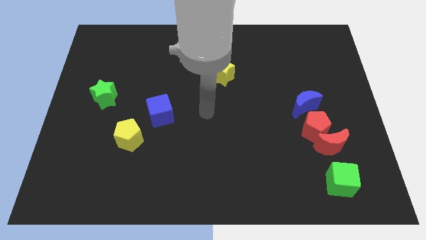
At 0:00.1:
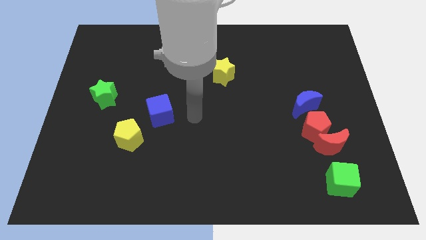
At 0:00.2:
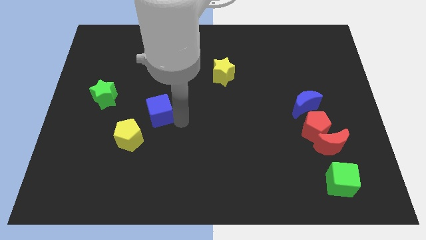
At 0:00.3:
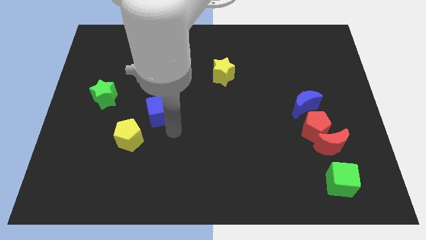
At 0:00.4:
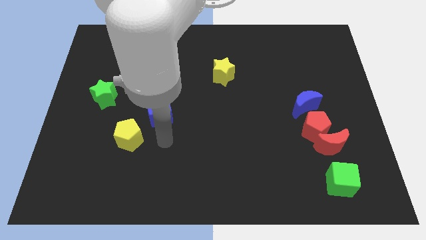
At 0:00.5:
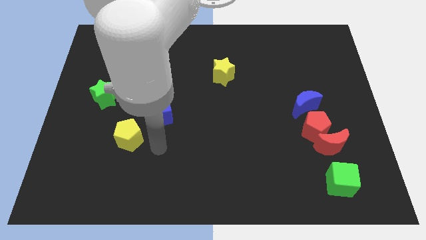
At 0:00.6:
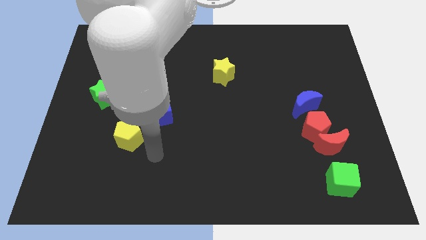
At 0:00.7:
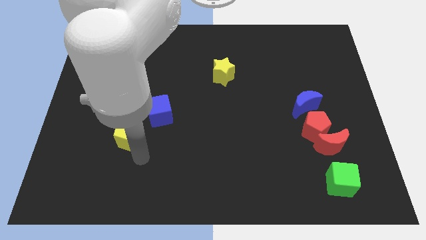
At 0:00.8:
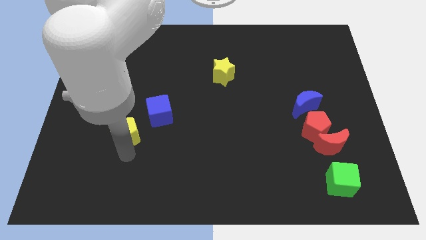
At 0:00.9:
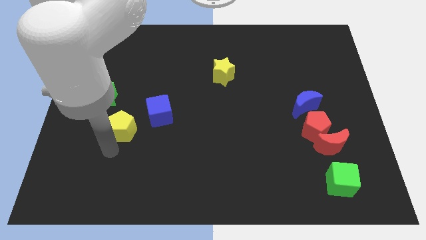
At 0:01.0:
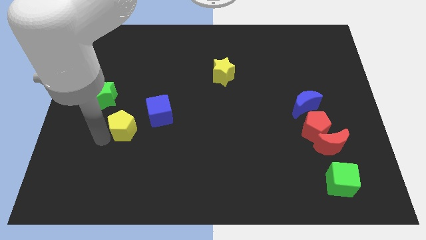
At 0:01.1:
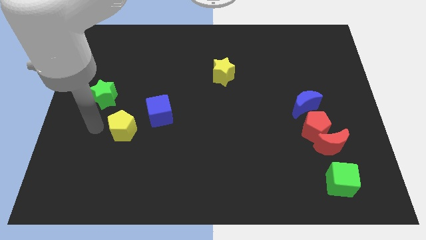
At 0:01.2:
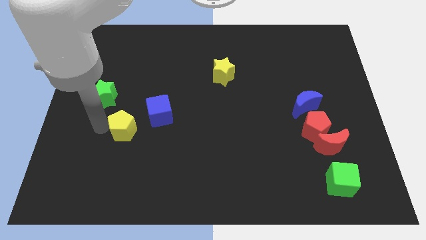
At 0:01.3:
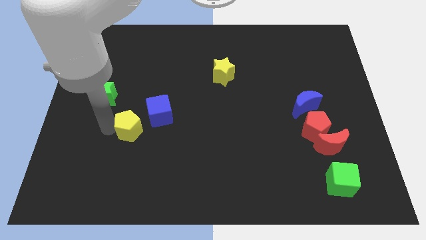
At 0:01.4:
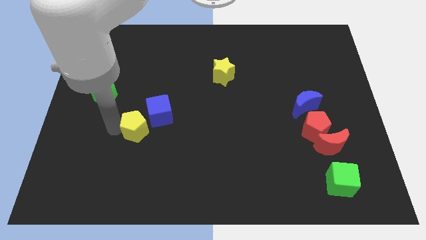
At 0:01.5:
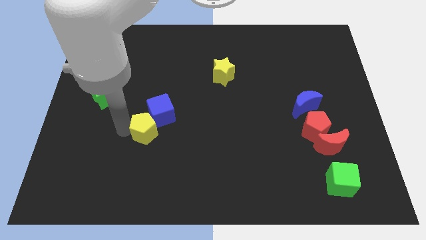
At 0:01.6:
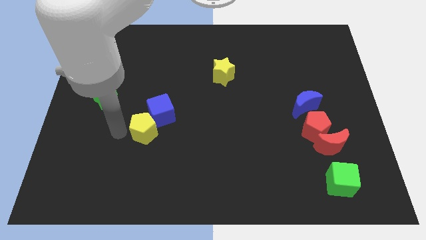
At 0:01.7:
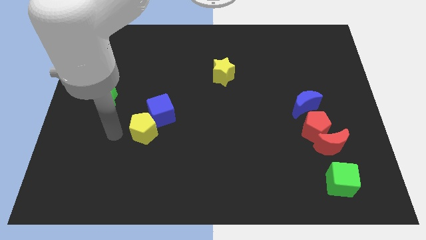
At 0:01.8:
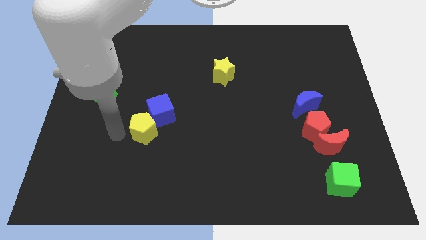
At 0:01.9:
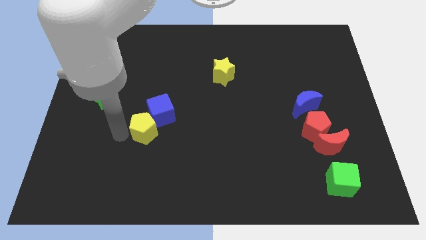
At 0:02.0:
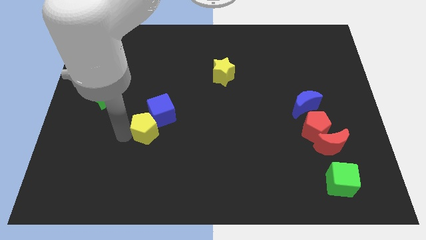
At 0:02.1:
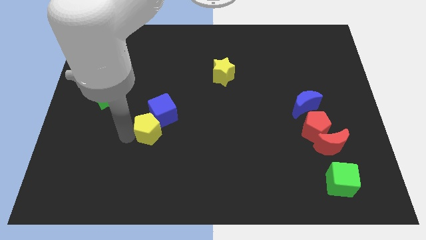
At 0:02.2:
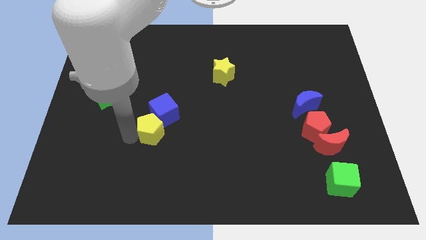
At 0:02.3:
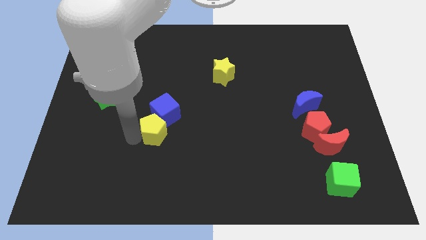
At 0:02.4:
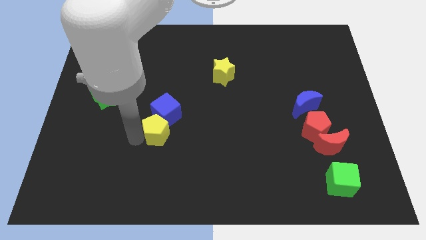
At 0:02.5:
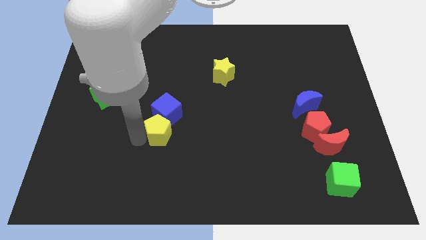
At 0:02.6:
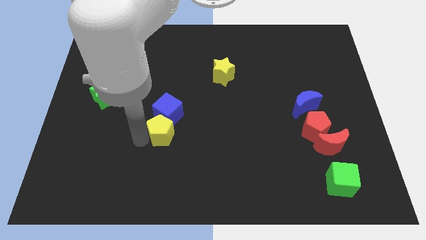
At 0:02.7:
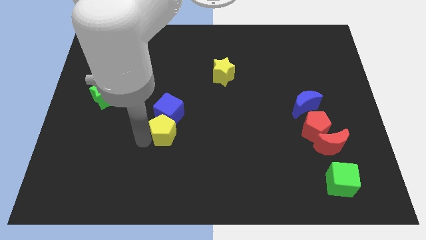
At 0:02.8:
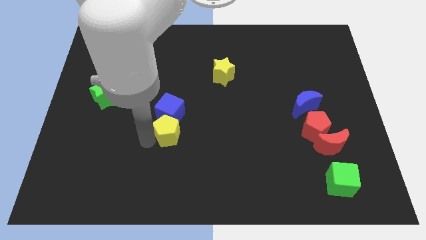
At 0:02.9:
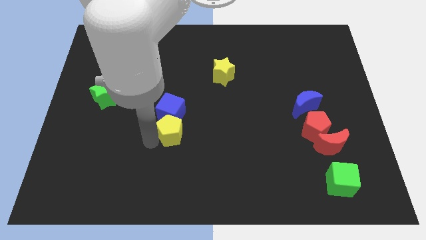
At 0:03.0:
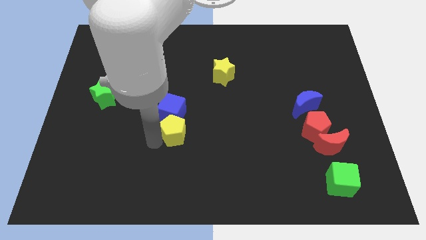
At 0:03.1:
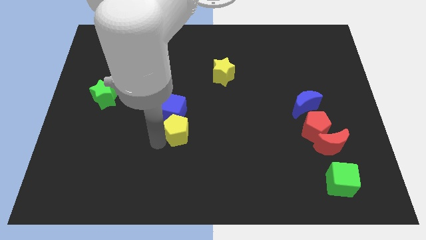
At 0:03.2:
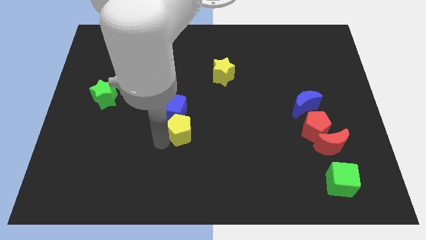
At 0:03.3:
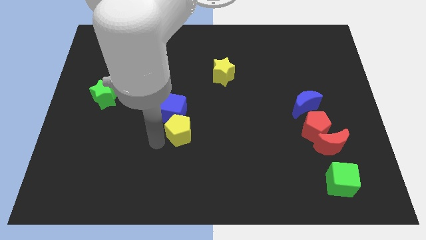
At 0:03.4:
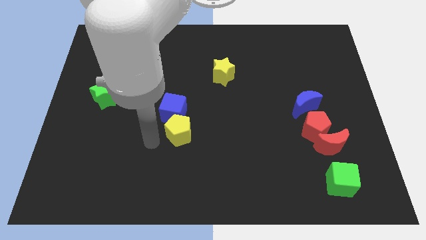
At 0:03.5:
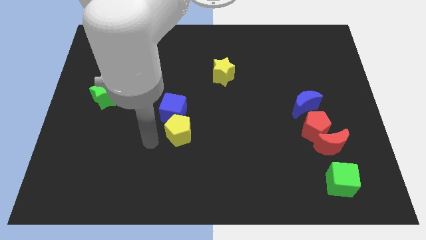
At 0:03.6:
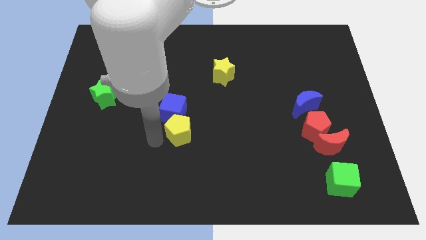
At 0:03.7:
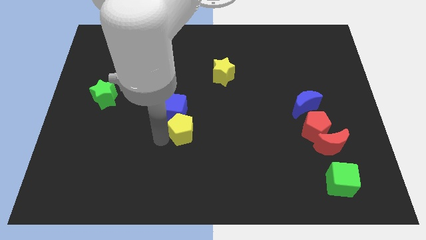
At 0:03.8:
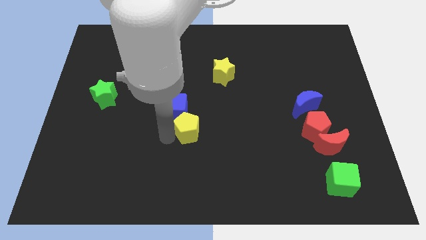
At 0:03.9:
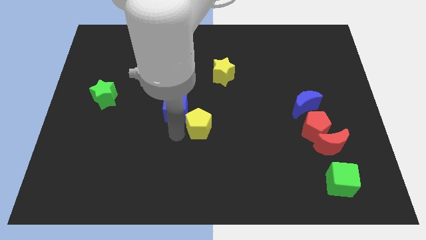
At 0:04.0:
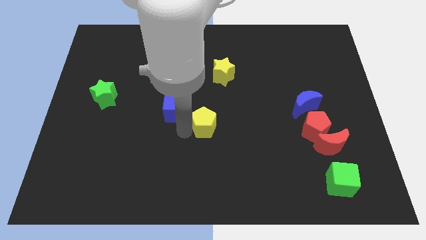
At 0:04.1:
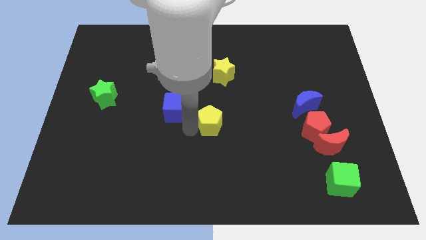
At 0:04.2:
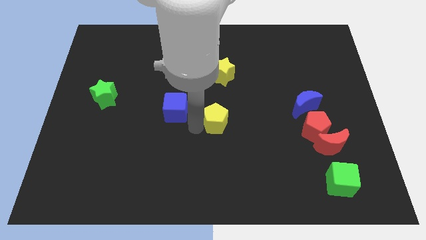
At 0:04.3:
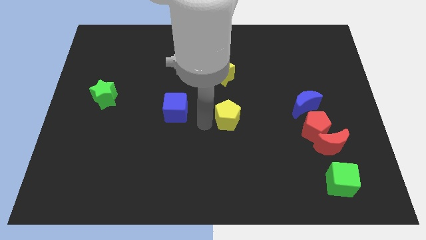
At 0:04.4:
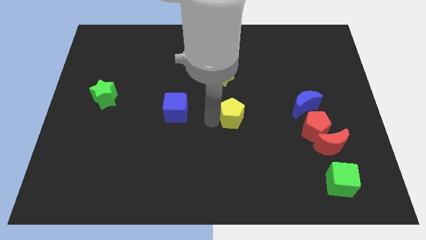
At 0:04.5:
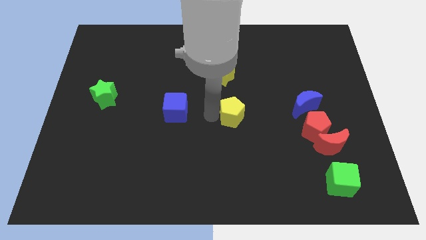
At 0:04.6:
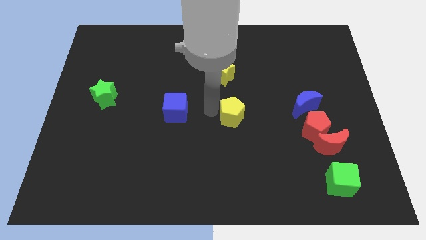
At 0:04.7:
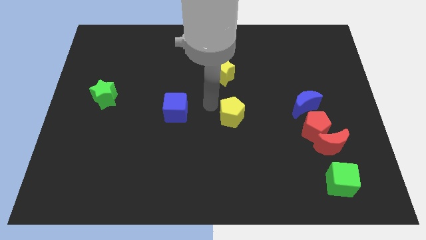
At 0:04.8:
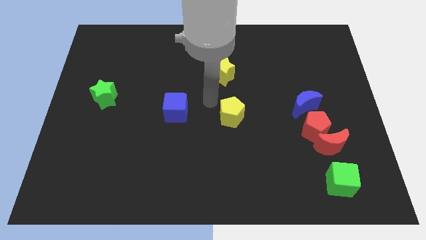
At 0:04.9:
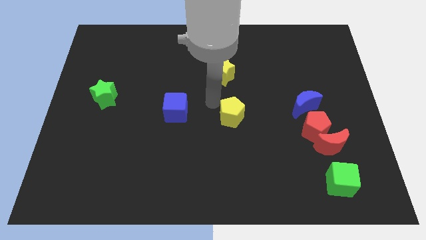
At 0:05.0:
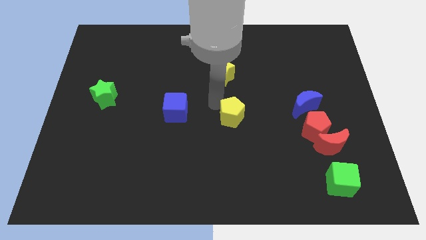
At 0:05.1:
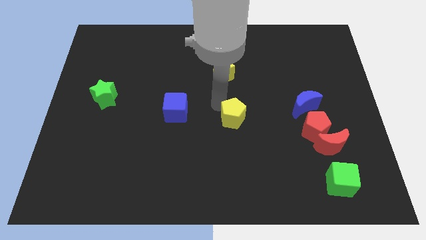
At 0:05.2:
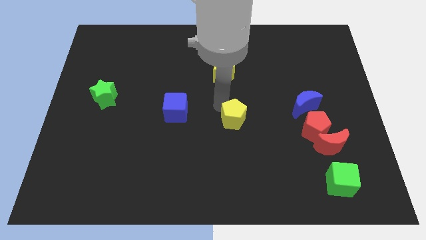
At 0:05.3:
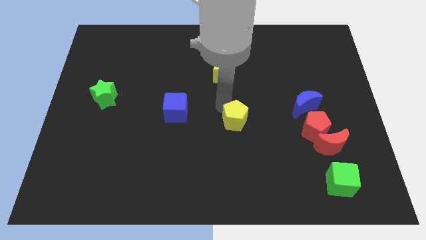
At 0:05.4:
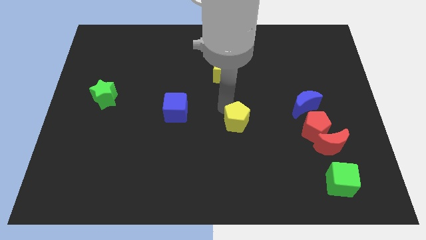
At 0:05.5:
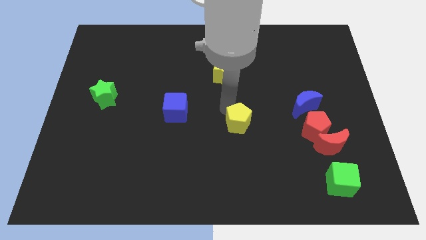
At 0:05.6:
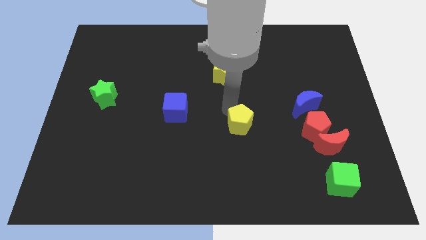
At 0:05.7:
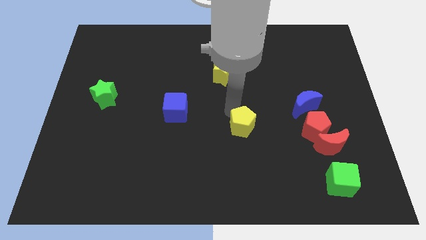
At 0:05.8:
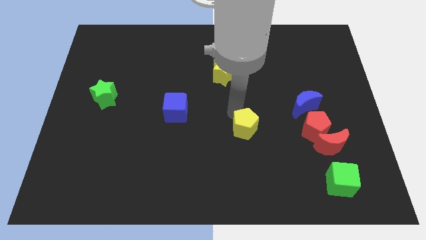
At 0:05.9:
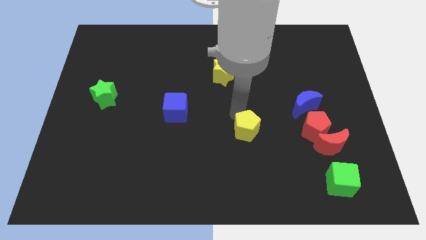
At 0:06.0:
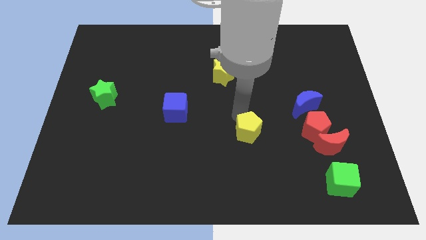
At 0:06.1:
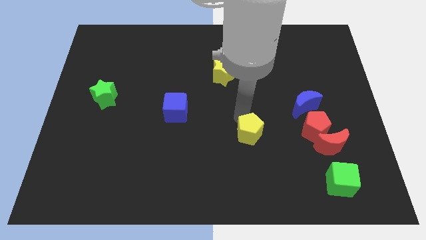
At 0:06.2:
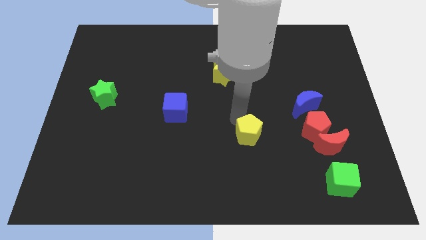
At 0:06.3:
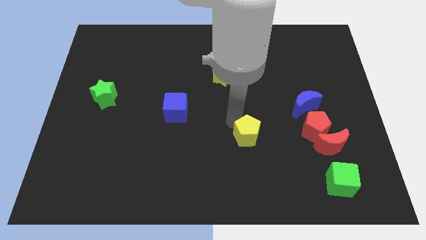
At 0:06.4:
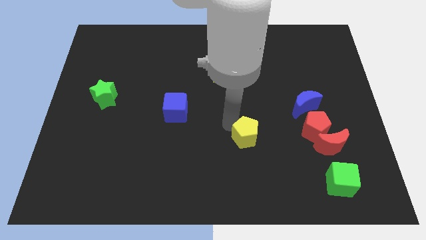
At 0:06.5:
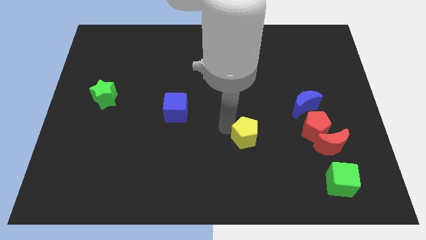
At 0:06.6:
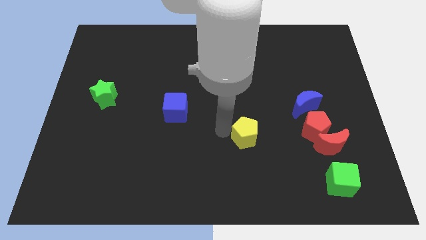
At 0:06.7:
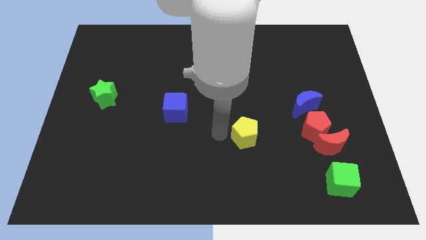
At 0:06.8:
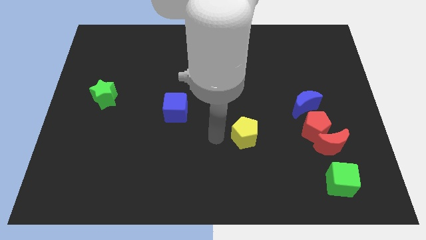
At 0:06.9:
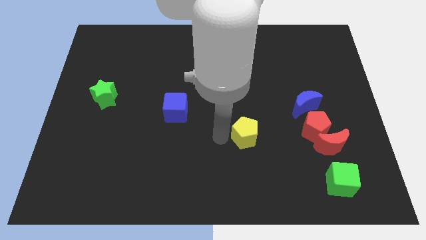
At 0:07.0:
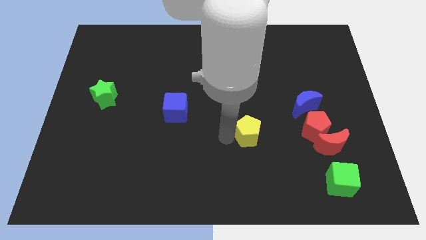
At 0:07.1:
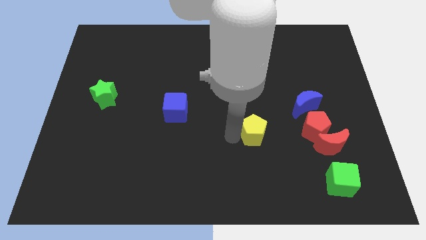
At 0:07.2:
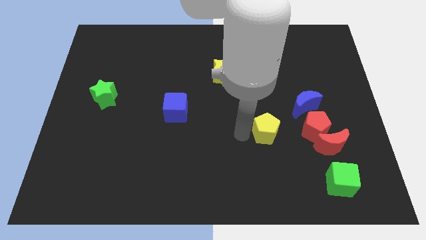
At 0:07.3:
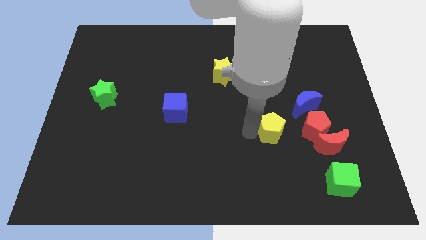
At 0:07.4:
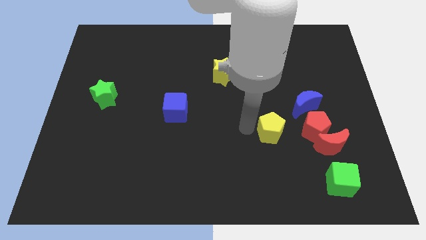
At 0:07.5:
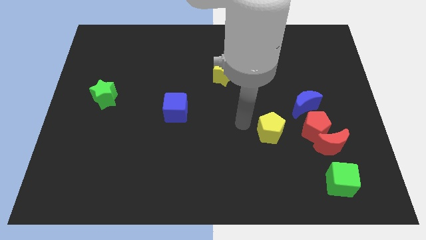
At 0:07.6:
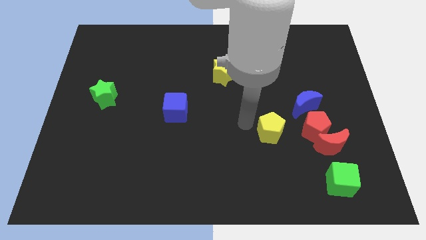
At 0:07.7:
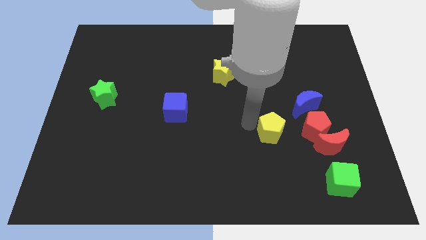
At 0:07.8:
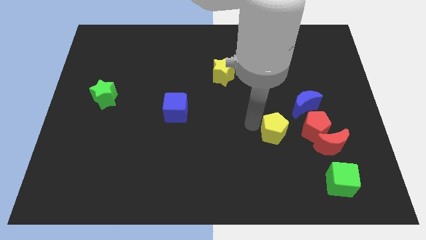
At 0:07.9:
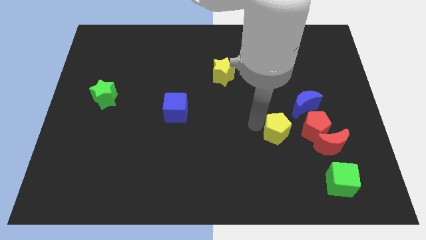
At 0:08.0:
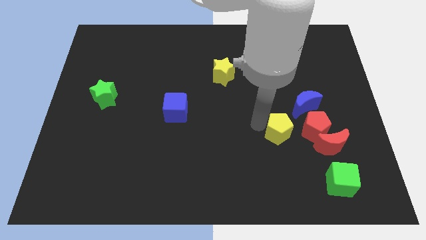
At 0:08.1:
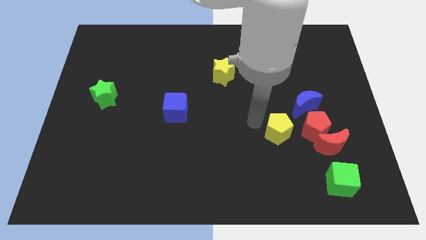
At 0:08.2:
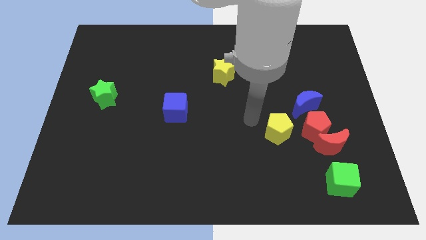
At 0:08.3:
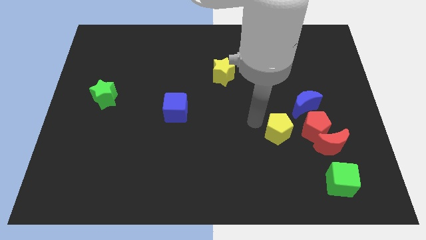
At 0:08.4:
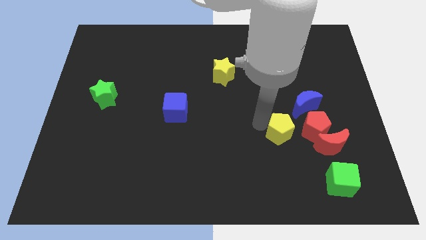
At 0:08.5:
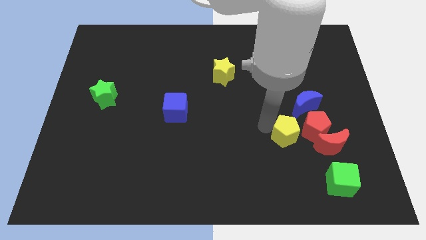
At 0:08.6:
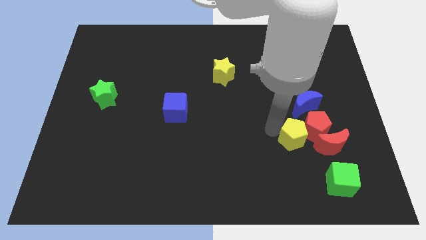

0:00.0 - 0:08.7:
put the yellow pentagon to the bottom side of the blue moon
